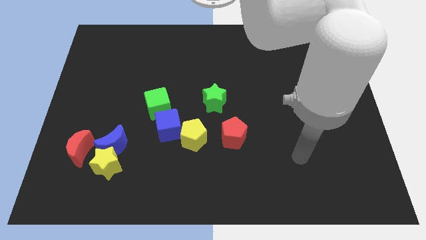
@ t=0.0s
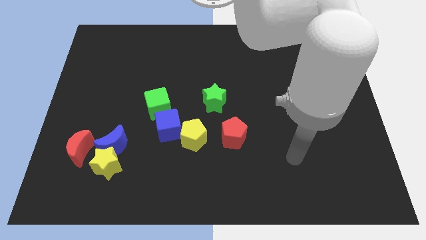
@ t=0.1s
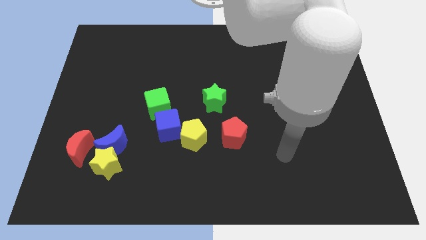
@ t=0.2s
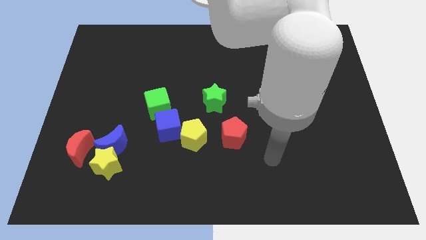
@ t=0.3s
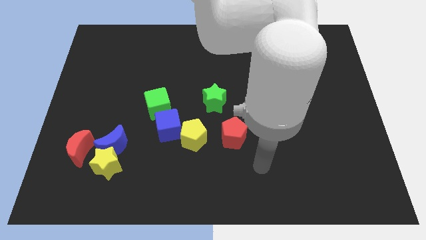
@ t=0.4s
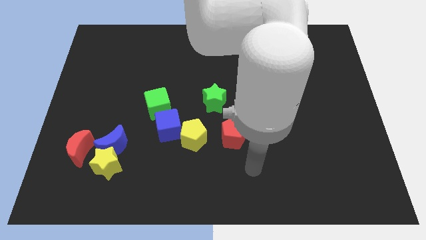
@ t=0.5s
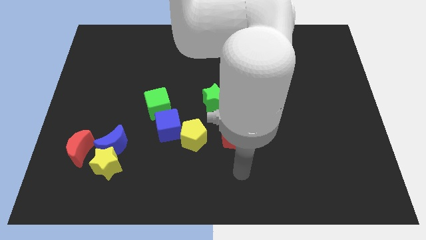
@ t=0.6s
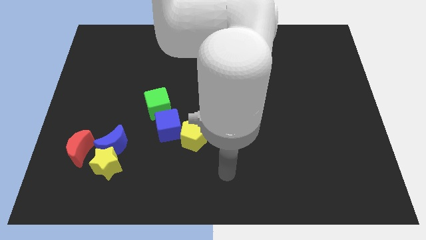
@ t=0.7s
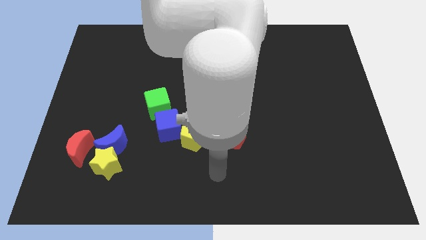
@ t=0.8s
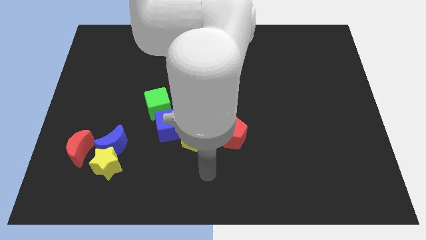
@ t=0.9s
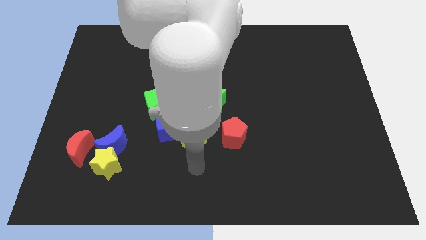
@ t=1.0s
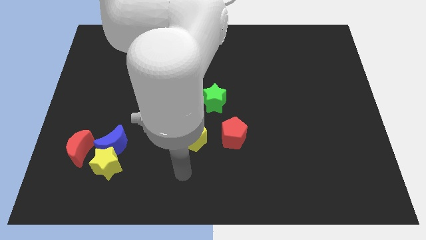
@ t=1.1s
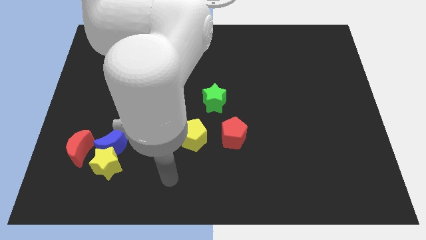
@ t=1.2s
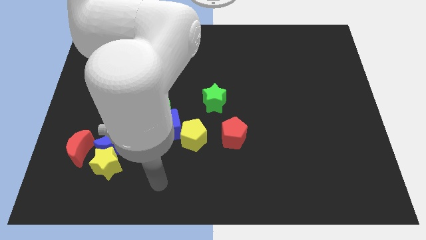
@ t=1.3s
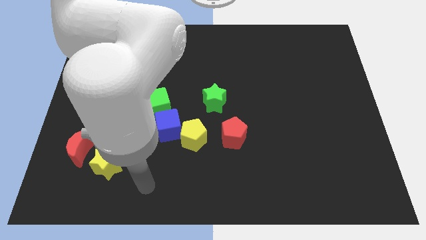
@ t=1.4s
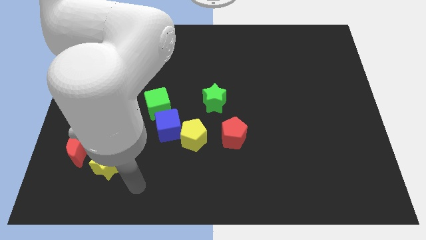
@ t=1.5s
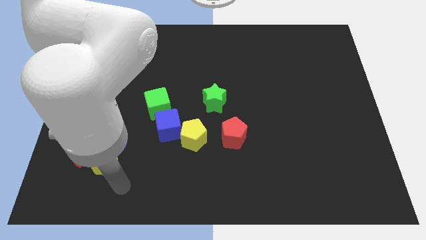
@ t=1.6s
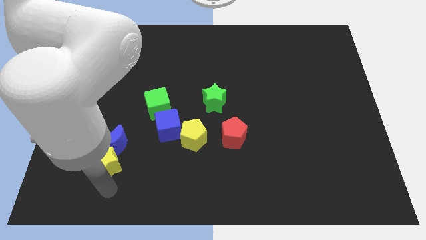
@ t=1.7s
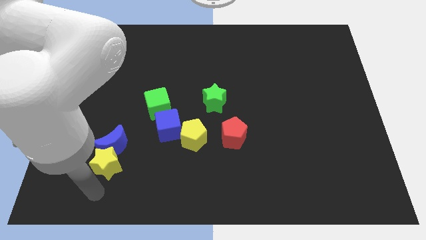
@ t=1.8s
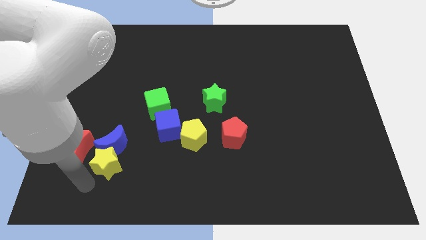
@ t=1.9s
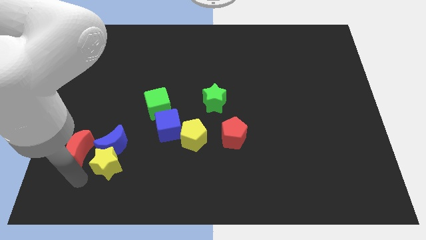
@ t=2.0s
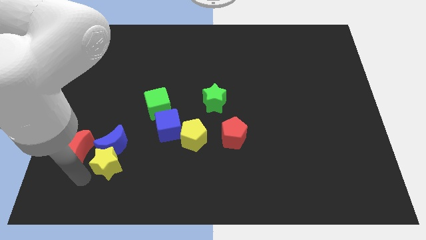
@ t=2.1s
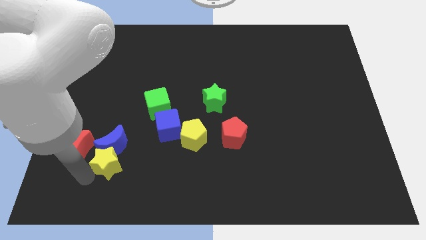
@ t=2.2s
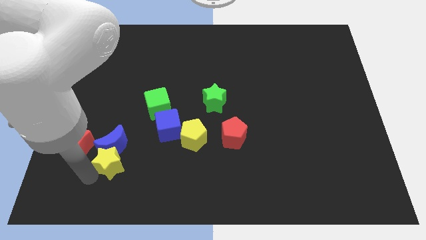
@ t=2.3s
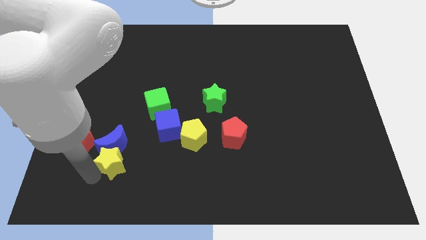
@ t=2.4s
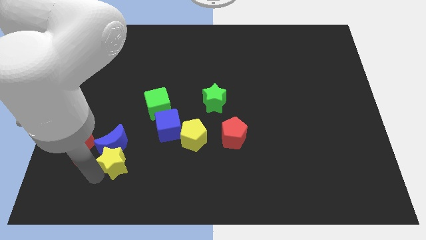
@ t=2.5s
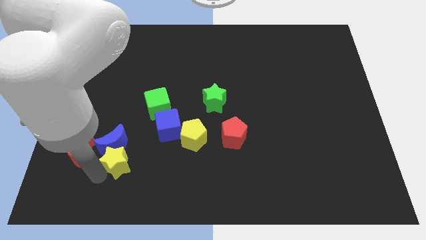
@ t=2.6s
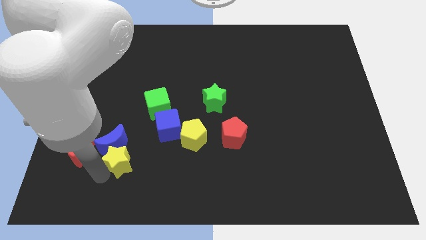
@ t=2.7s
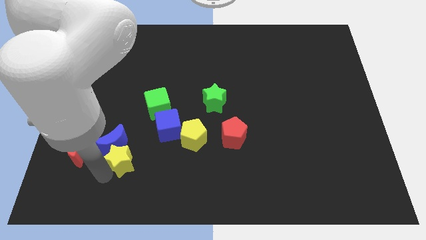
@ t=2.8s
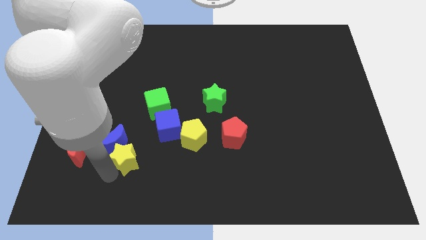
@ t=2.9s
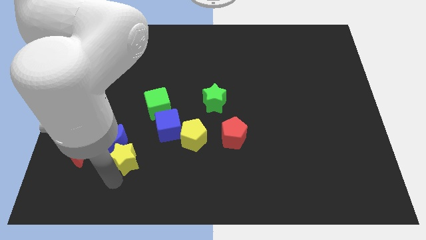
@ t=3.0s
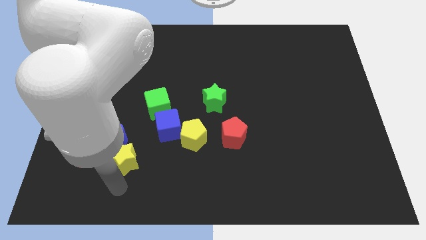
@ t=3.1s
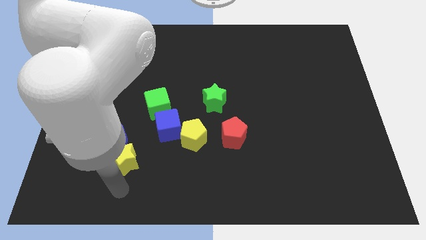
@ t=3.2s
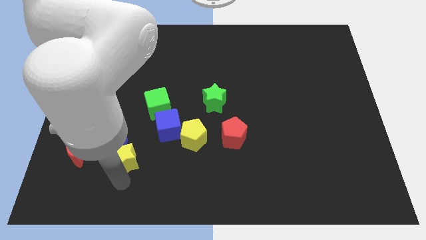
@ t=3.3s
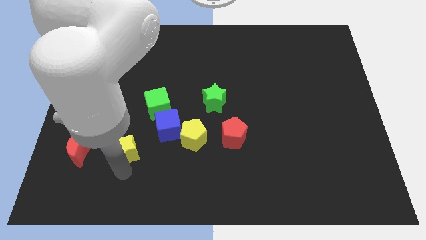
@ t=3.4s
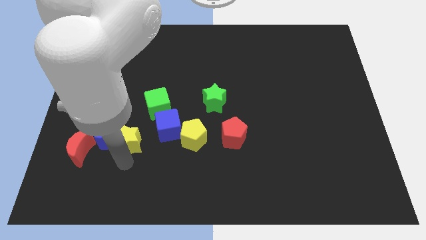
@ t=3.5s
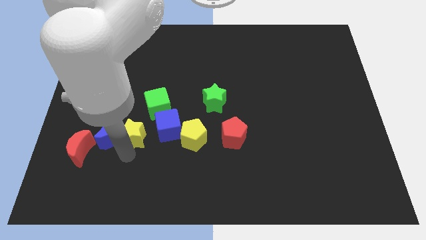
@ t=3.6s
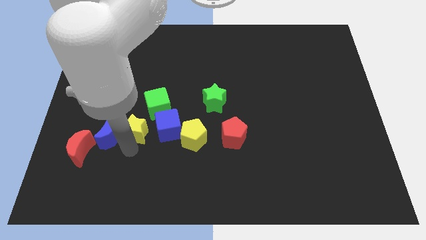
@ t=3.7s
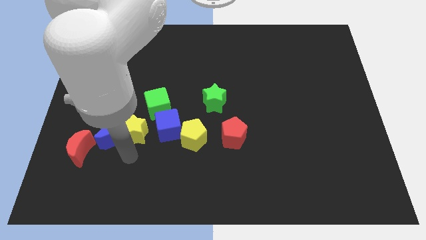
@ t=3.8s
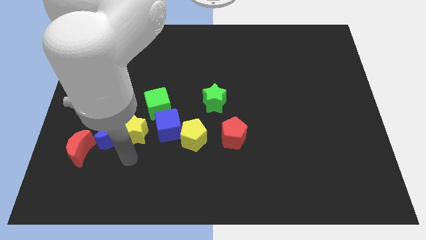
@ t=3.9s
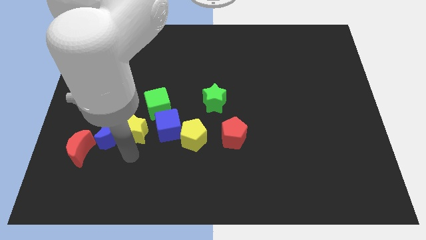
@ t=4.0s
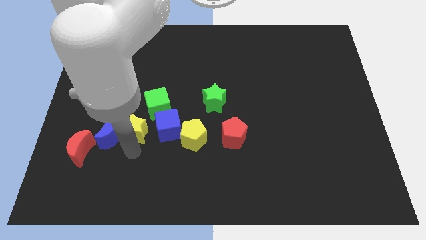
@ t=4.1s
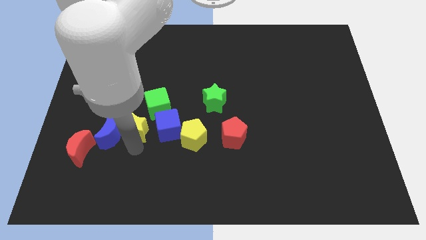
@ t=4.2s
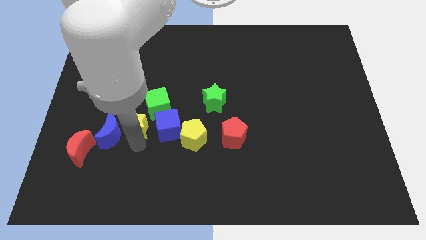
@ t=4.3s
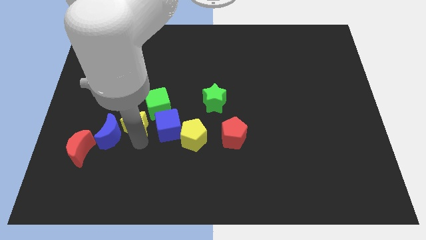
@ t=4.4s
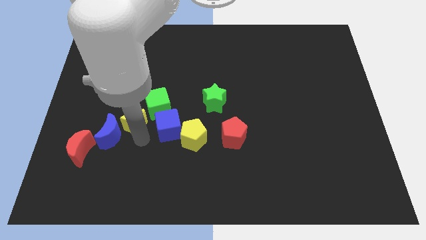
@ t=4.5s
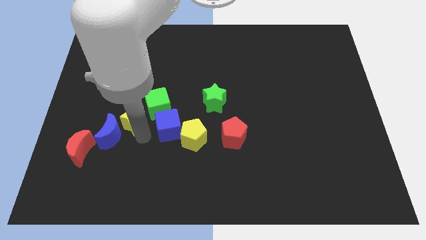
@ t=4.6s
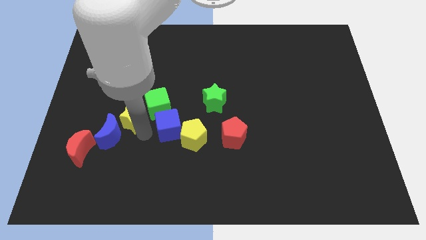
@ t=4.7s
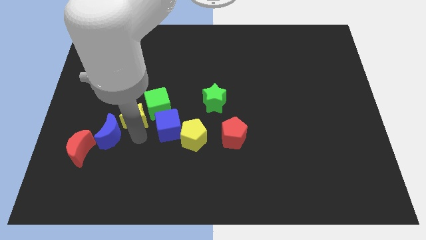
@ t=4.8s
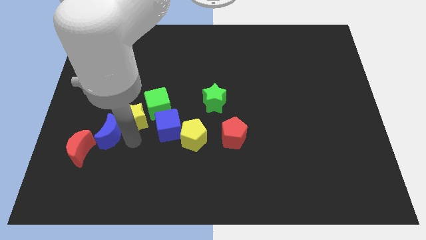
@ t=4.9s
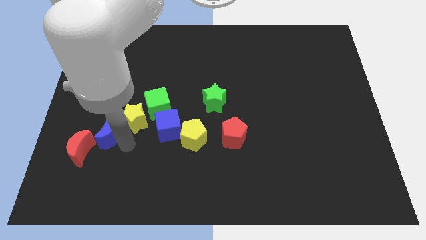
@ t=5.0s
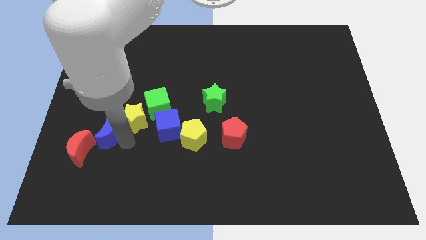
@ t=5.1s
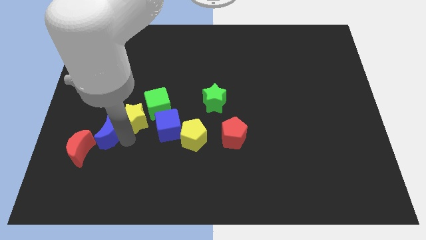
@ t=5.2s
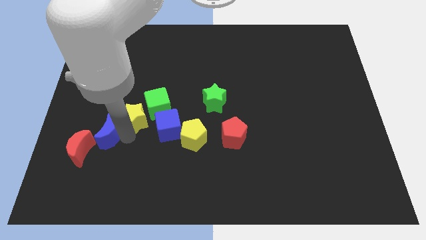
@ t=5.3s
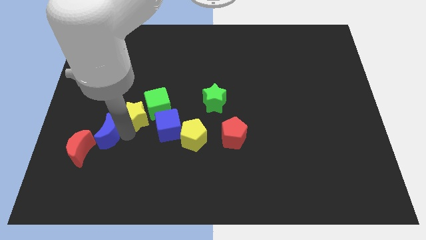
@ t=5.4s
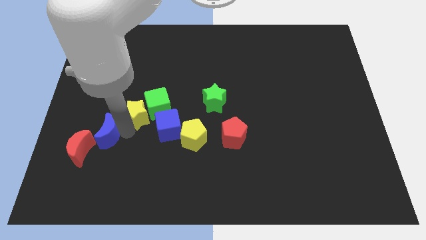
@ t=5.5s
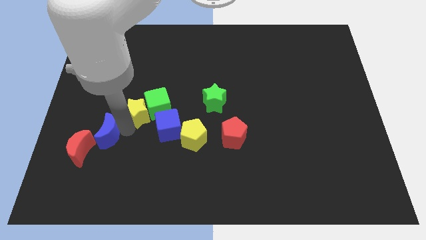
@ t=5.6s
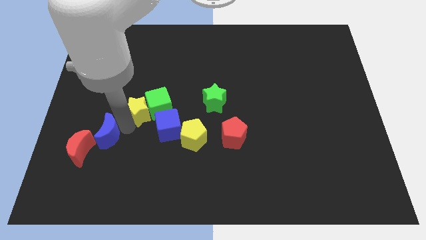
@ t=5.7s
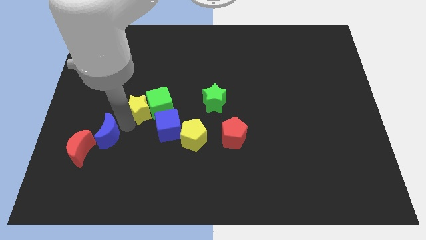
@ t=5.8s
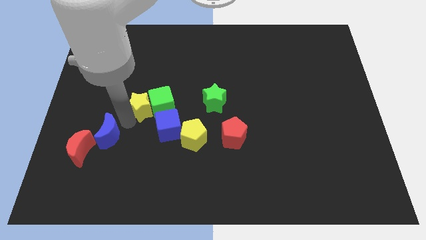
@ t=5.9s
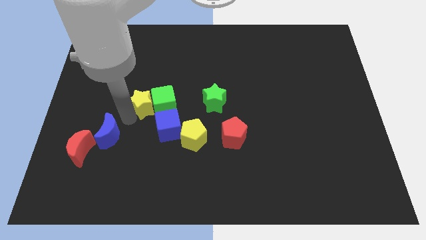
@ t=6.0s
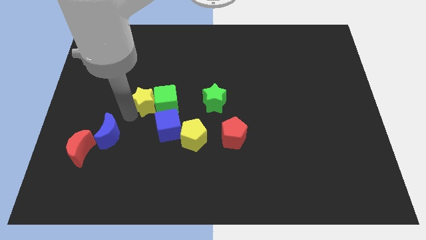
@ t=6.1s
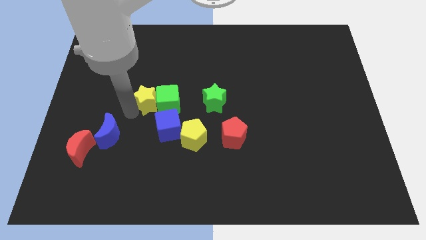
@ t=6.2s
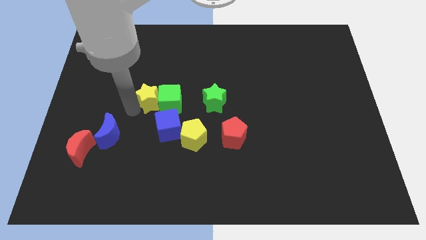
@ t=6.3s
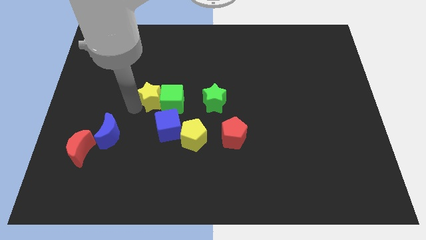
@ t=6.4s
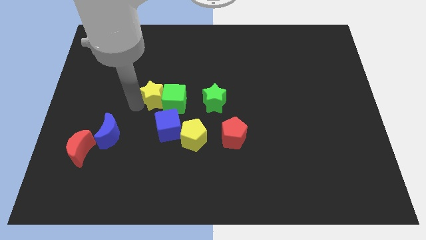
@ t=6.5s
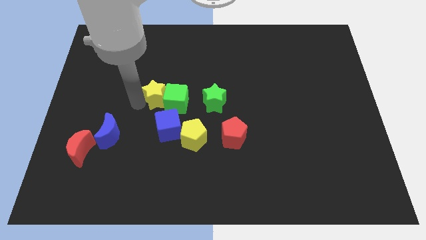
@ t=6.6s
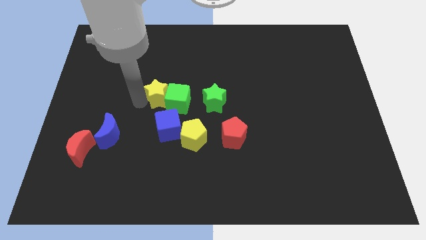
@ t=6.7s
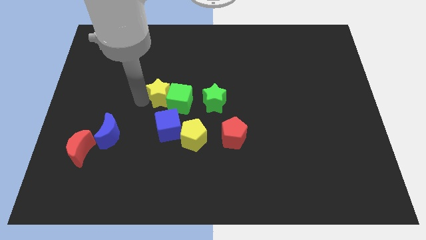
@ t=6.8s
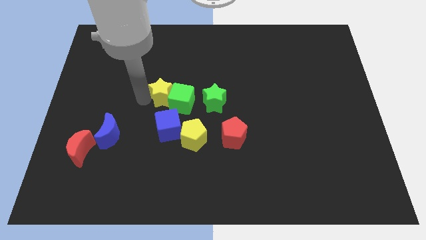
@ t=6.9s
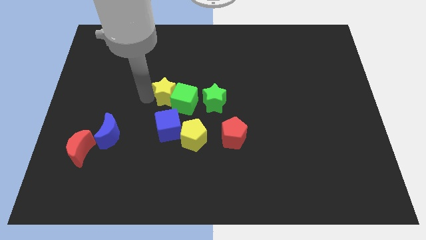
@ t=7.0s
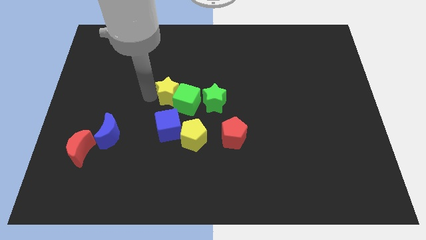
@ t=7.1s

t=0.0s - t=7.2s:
slide the yellow star up and to the right

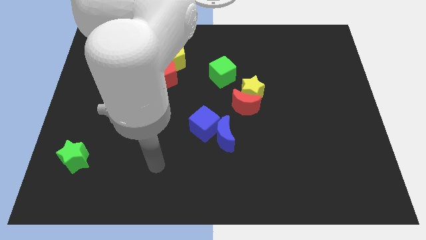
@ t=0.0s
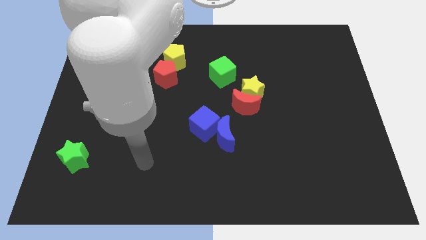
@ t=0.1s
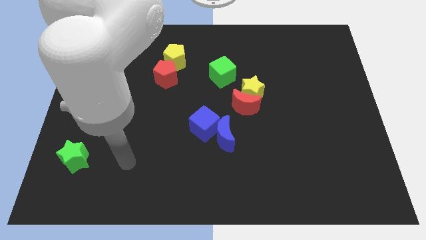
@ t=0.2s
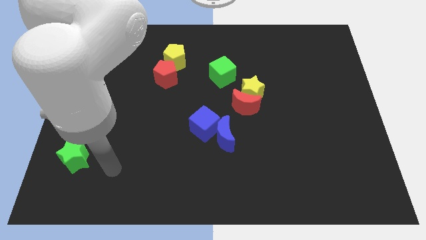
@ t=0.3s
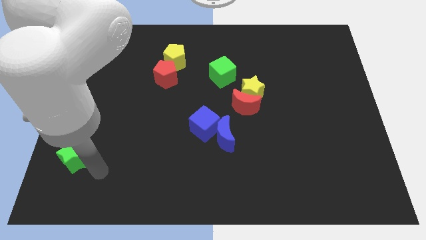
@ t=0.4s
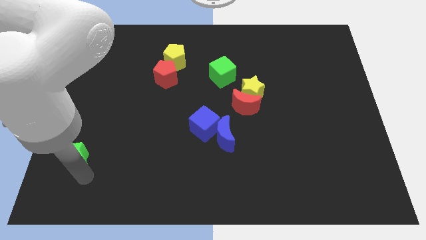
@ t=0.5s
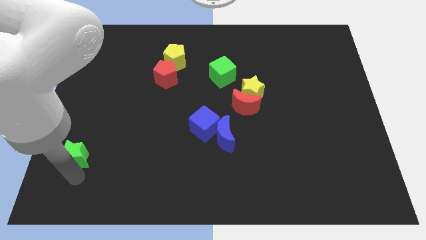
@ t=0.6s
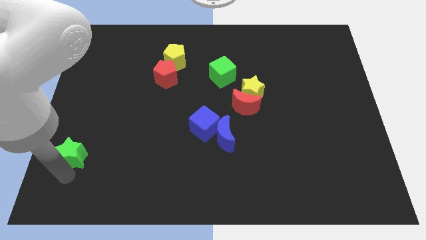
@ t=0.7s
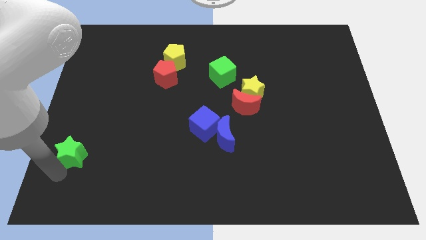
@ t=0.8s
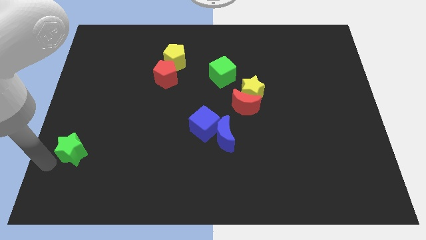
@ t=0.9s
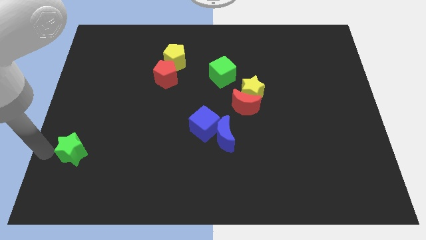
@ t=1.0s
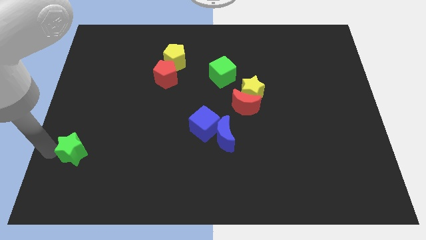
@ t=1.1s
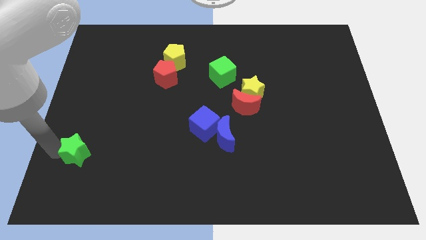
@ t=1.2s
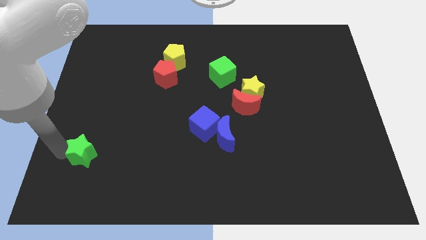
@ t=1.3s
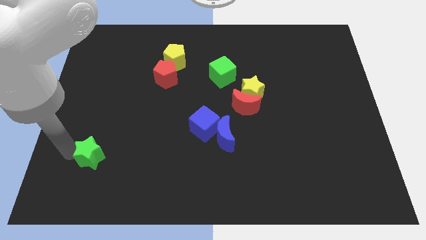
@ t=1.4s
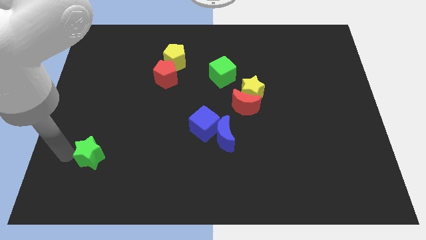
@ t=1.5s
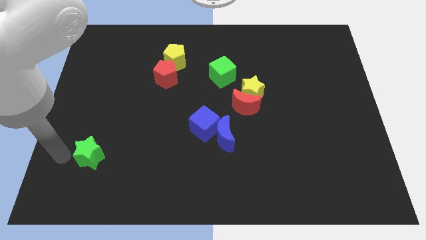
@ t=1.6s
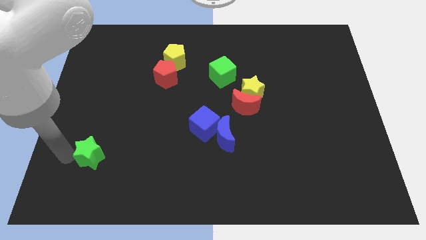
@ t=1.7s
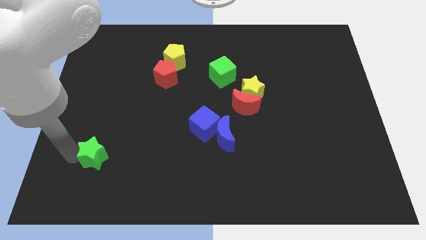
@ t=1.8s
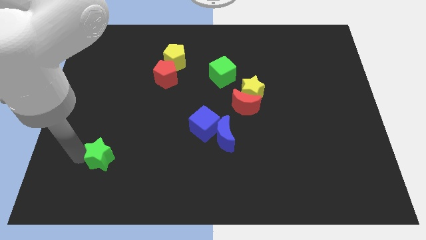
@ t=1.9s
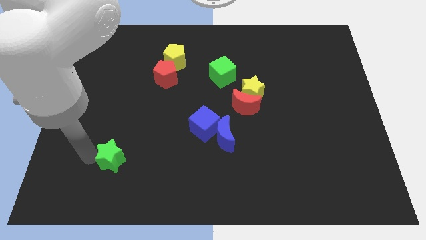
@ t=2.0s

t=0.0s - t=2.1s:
push the green star right a little bit
